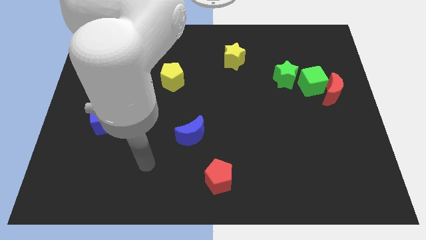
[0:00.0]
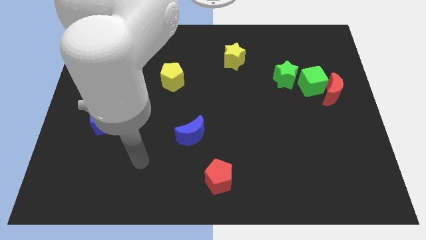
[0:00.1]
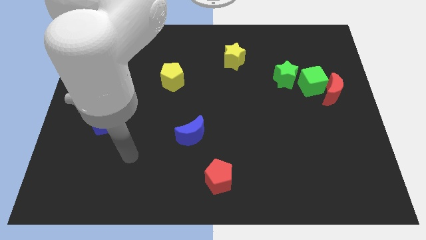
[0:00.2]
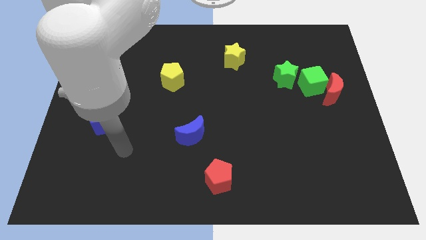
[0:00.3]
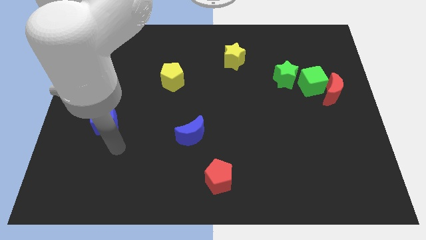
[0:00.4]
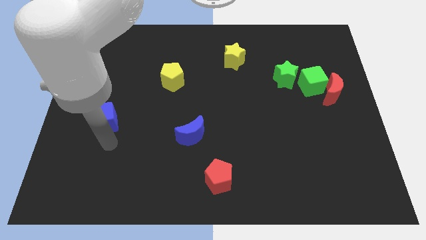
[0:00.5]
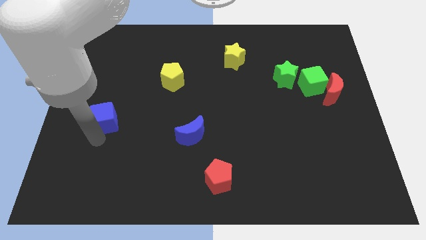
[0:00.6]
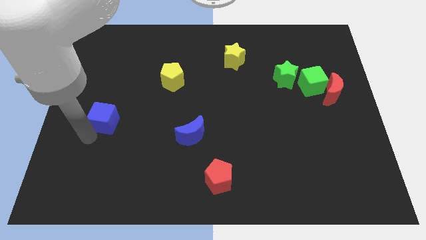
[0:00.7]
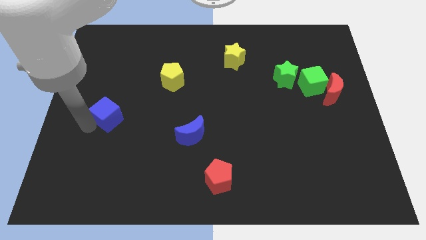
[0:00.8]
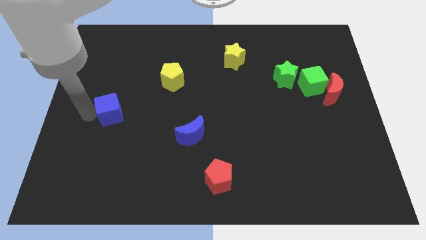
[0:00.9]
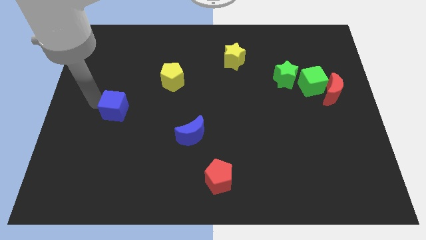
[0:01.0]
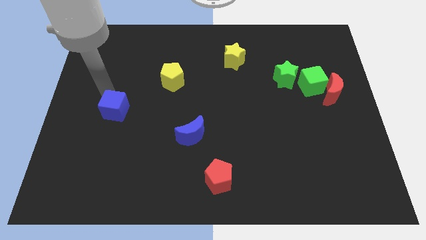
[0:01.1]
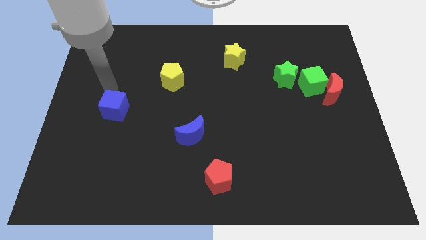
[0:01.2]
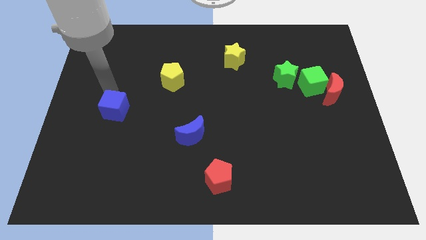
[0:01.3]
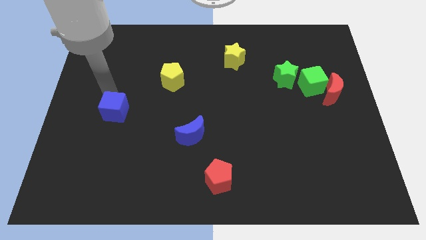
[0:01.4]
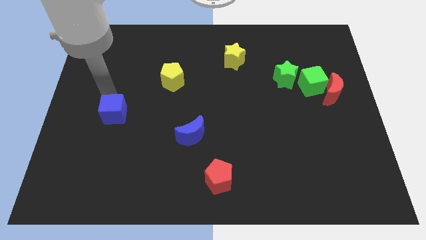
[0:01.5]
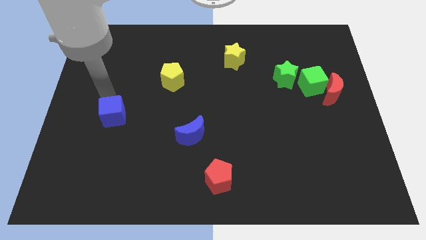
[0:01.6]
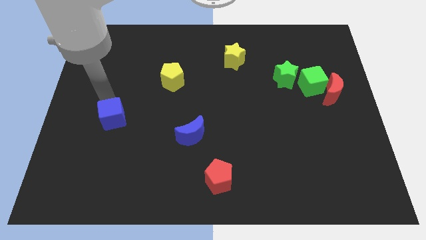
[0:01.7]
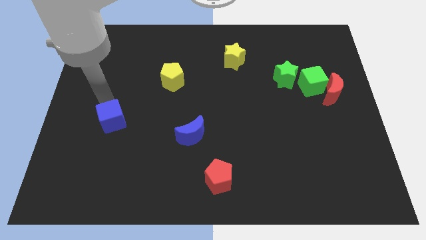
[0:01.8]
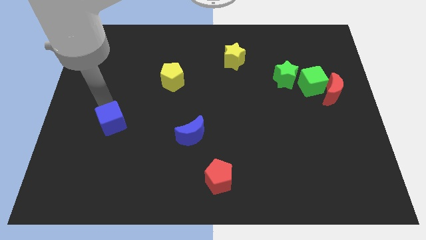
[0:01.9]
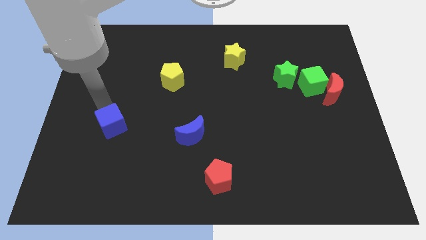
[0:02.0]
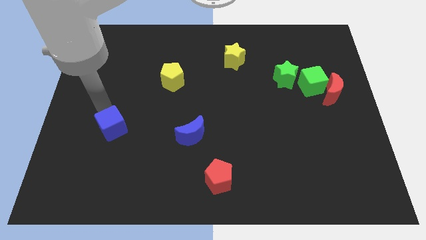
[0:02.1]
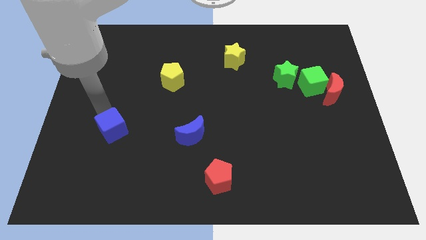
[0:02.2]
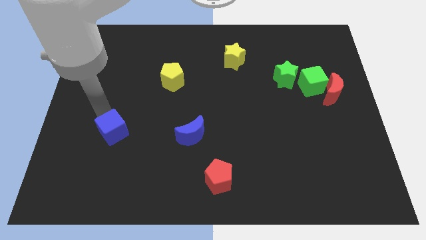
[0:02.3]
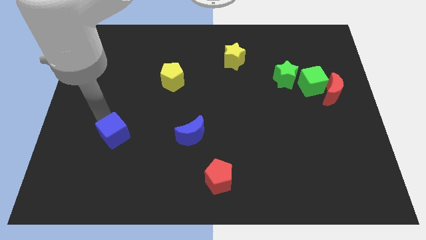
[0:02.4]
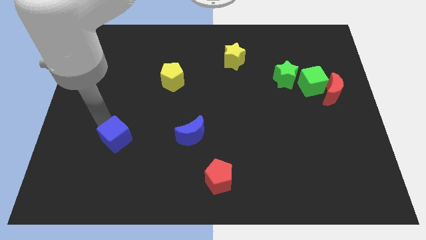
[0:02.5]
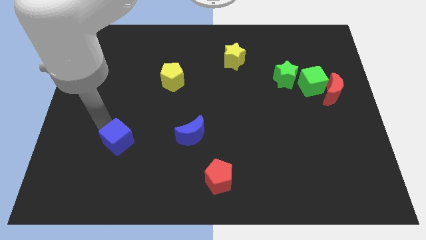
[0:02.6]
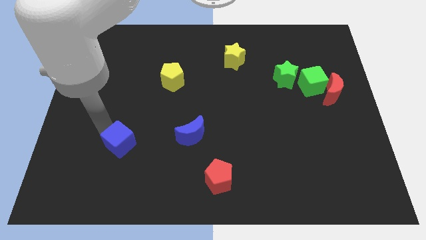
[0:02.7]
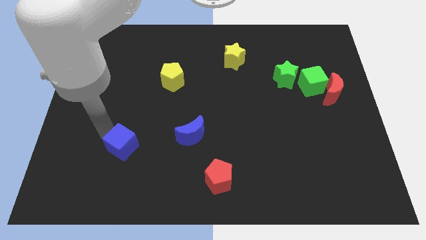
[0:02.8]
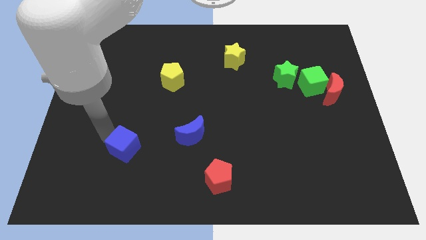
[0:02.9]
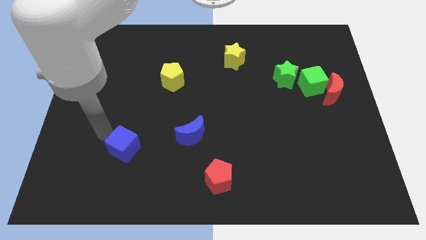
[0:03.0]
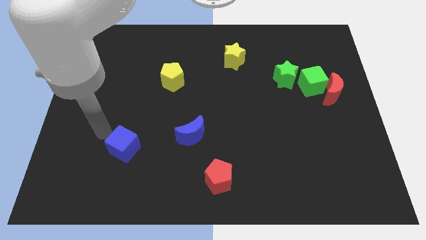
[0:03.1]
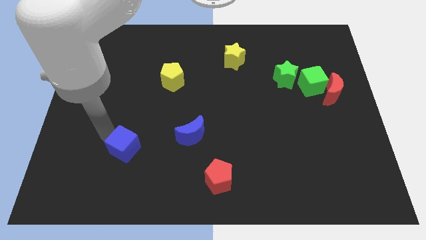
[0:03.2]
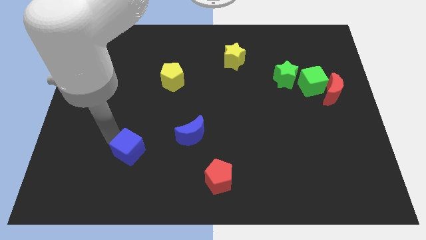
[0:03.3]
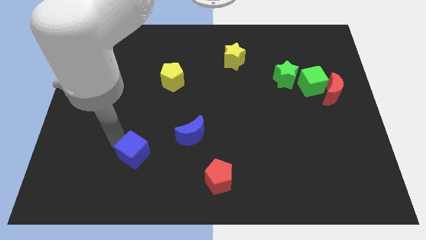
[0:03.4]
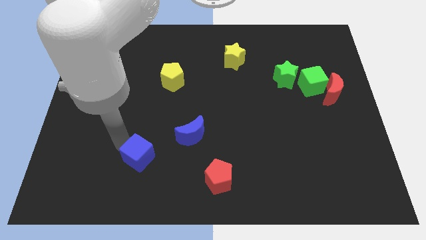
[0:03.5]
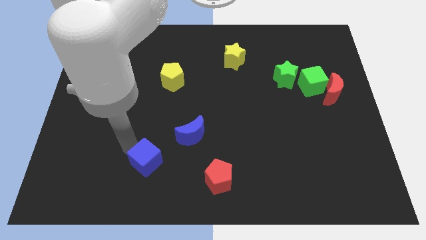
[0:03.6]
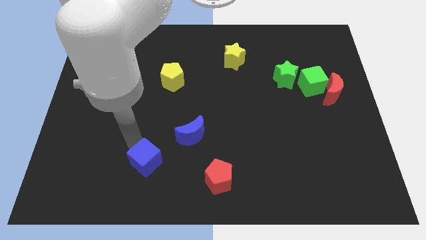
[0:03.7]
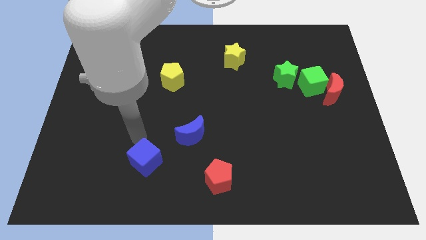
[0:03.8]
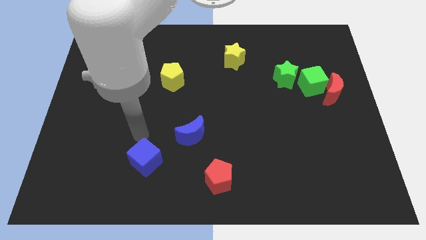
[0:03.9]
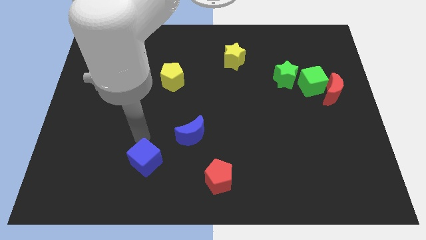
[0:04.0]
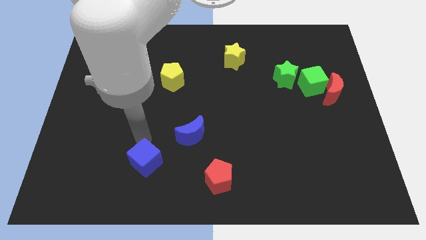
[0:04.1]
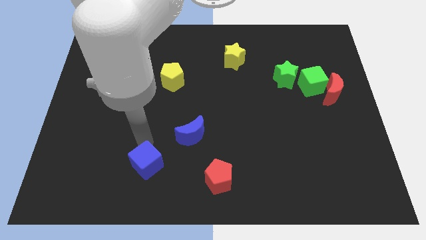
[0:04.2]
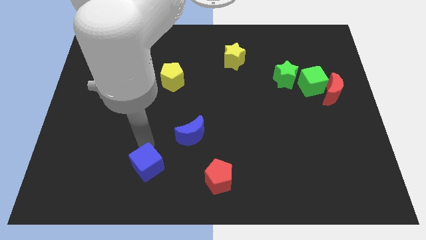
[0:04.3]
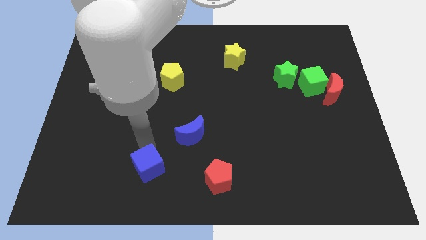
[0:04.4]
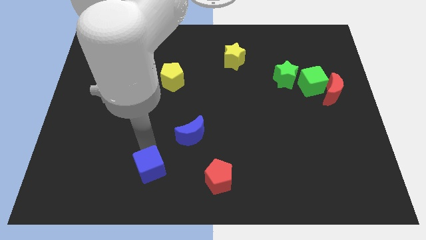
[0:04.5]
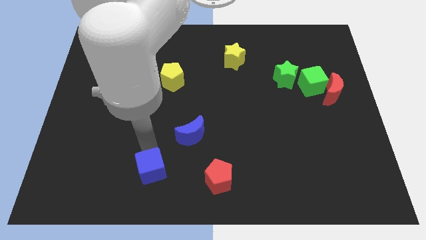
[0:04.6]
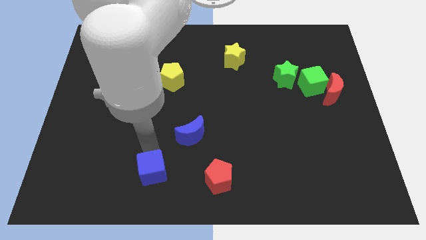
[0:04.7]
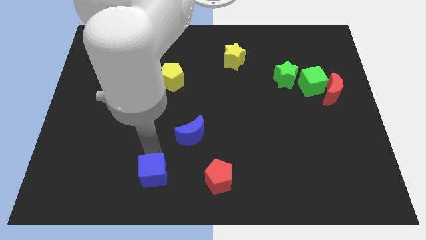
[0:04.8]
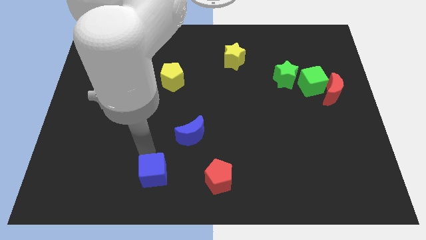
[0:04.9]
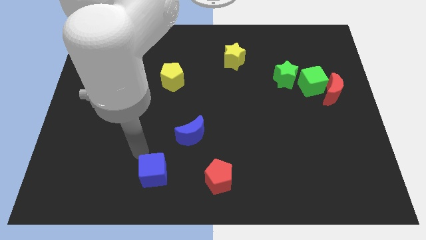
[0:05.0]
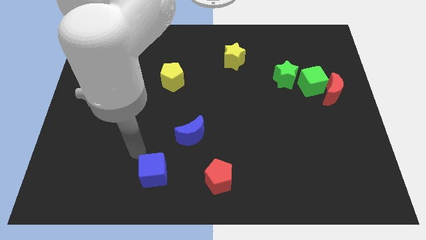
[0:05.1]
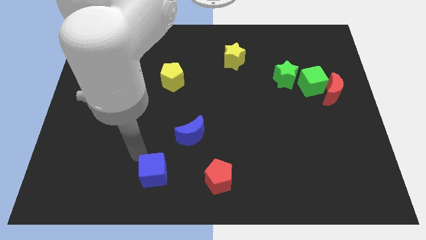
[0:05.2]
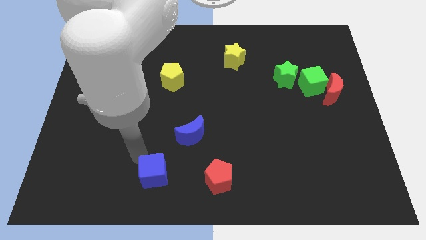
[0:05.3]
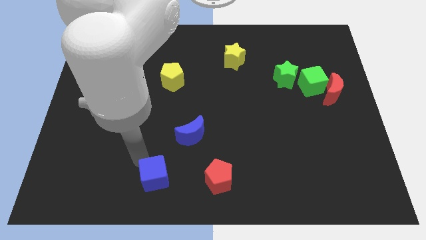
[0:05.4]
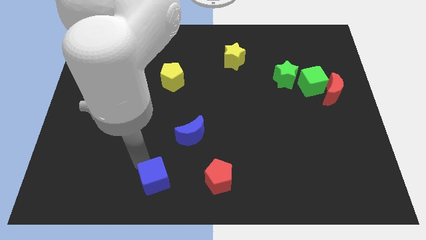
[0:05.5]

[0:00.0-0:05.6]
slide the blue cube to the bottom side

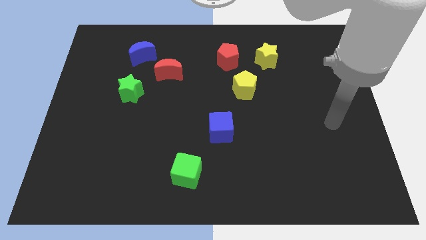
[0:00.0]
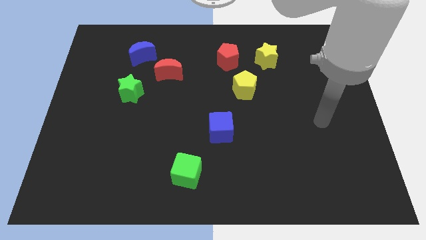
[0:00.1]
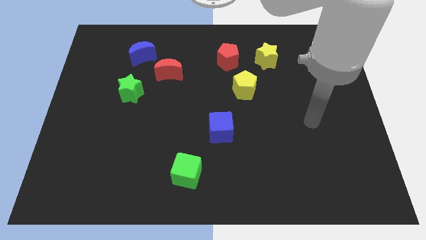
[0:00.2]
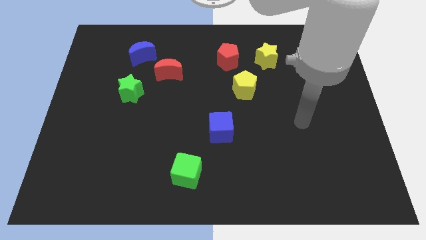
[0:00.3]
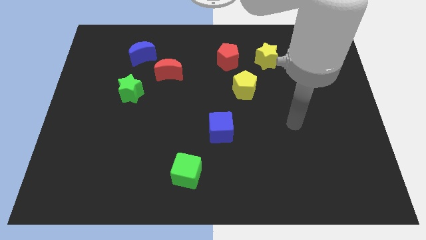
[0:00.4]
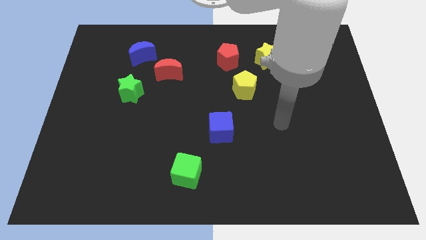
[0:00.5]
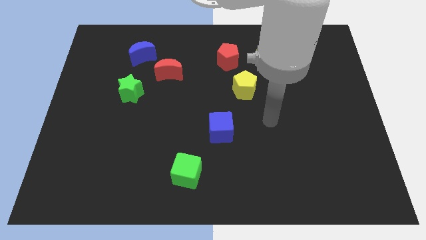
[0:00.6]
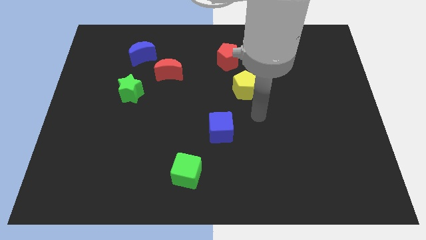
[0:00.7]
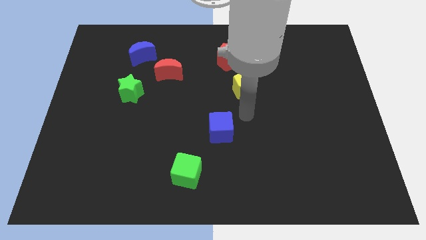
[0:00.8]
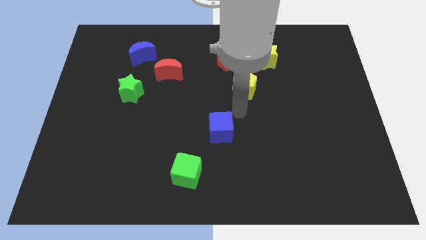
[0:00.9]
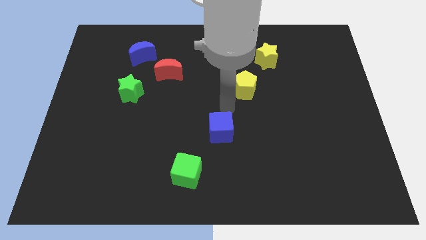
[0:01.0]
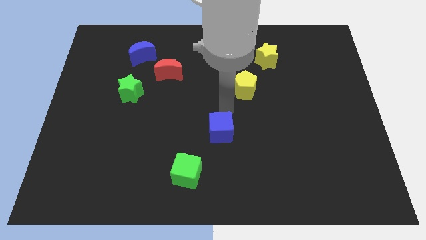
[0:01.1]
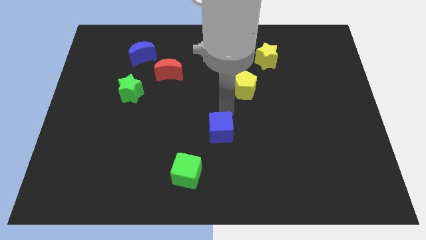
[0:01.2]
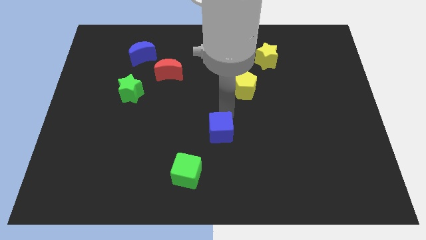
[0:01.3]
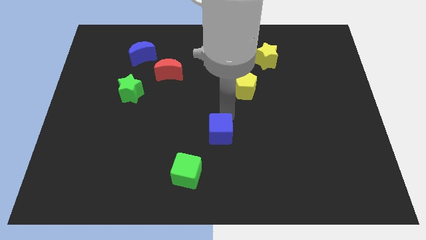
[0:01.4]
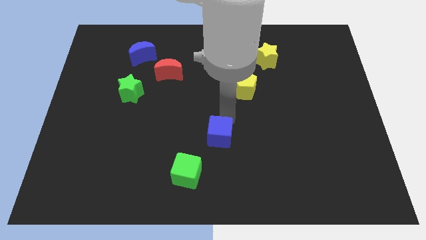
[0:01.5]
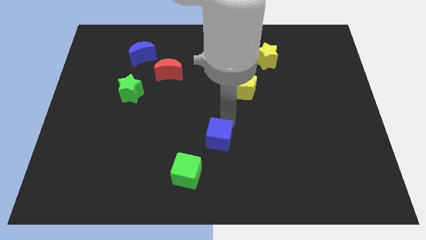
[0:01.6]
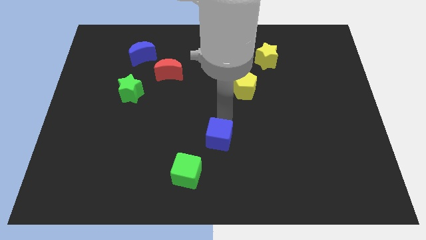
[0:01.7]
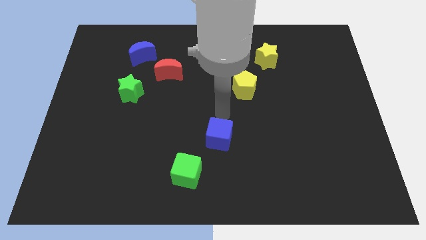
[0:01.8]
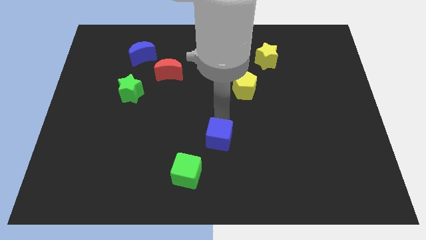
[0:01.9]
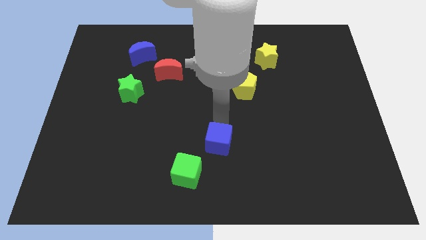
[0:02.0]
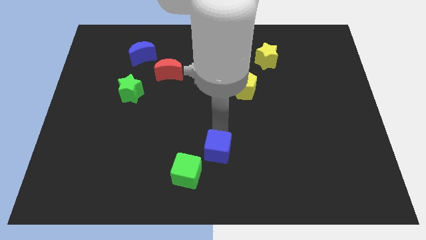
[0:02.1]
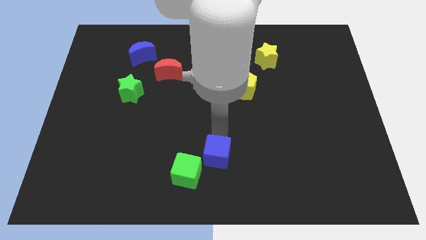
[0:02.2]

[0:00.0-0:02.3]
put the blue cube to the bottom side
